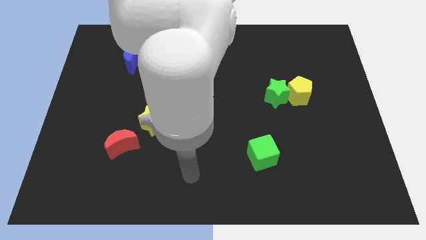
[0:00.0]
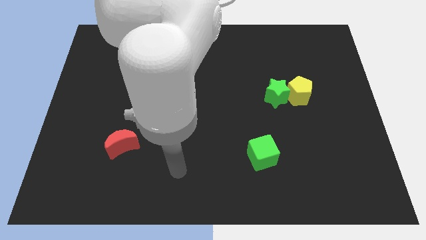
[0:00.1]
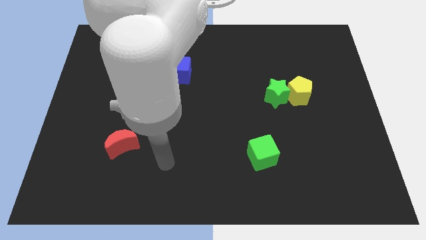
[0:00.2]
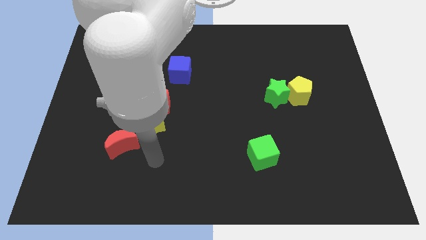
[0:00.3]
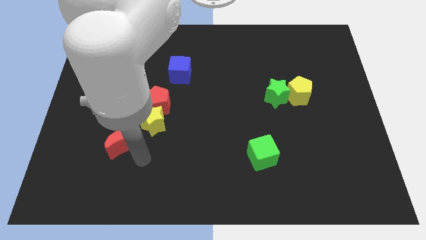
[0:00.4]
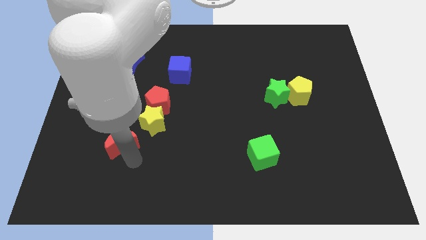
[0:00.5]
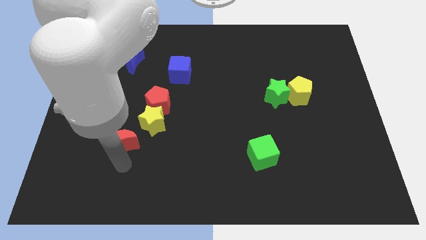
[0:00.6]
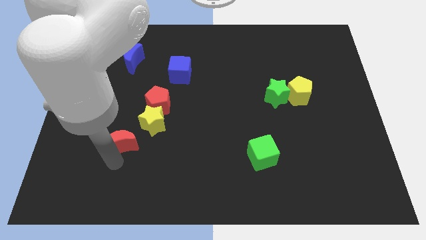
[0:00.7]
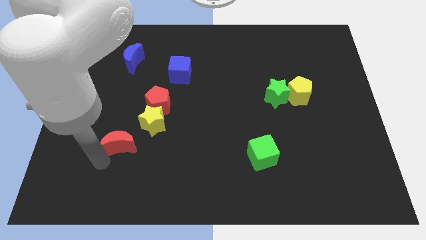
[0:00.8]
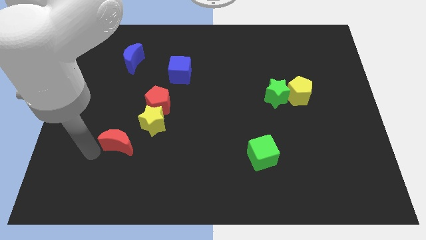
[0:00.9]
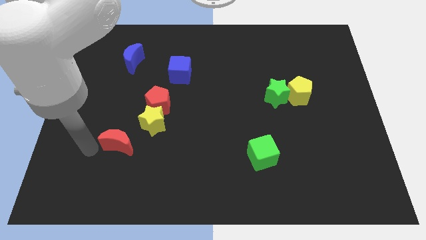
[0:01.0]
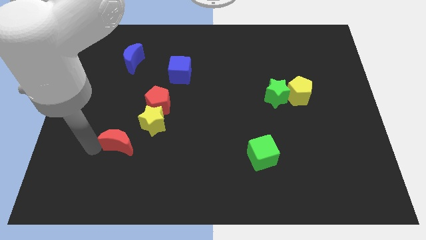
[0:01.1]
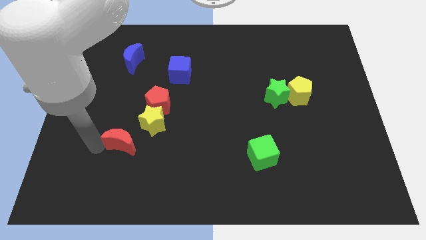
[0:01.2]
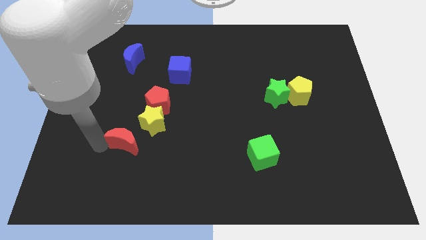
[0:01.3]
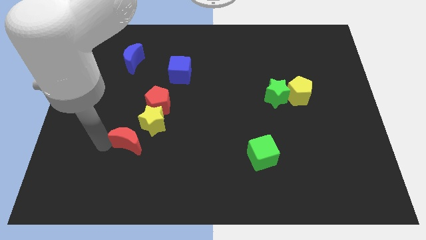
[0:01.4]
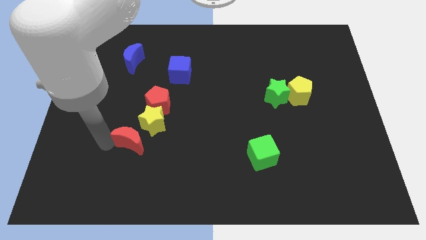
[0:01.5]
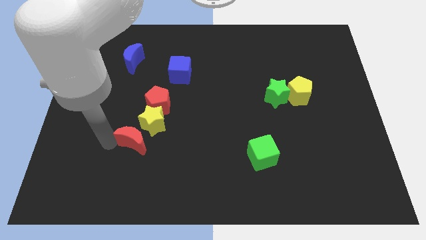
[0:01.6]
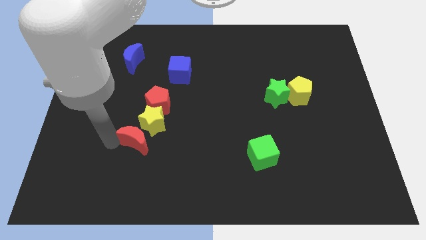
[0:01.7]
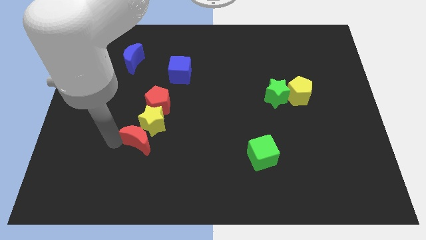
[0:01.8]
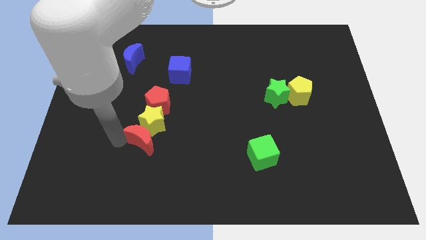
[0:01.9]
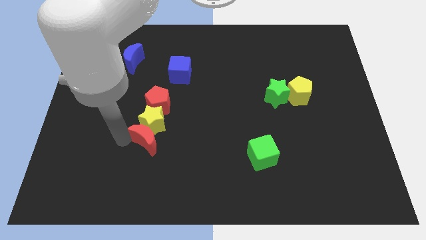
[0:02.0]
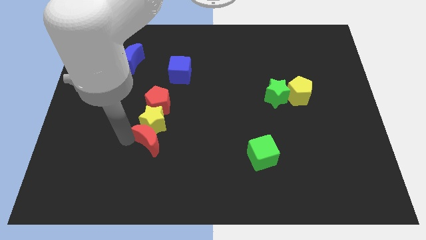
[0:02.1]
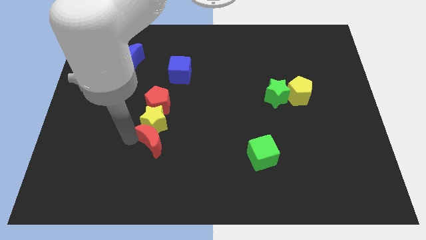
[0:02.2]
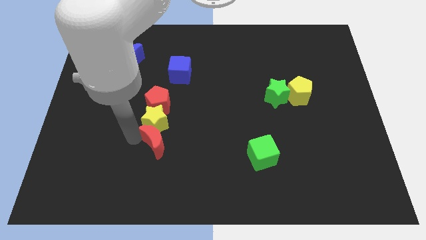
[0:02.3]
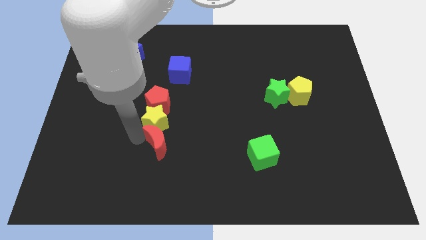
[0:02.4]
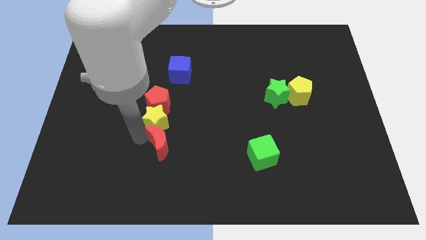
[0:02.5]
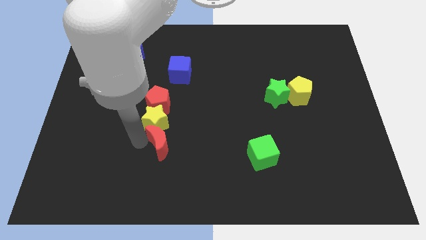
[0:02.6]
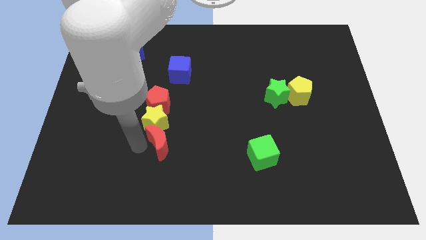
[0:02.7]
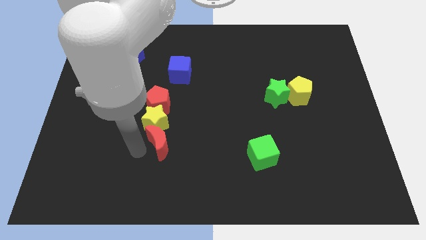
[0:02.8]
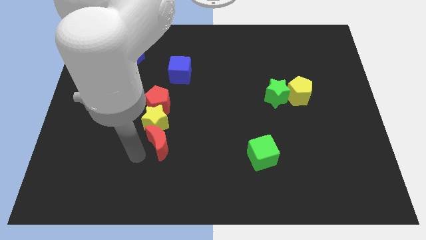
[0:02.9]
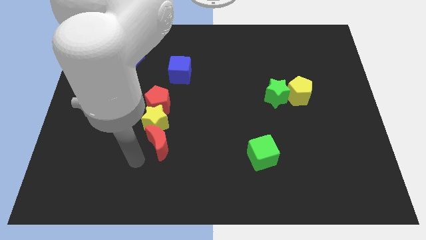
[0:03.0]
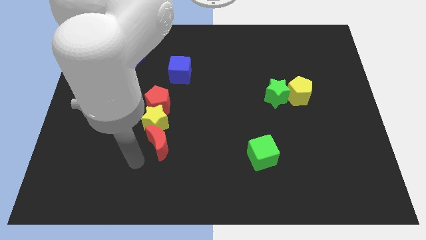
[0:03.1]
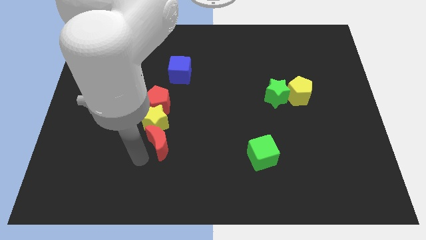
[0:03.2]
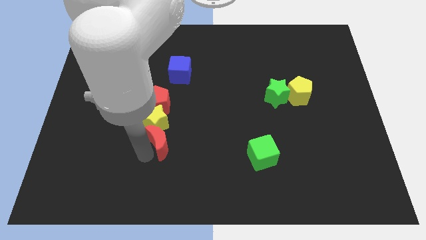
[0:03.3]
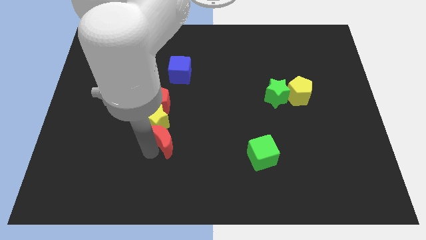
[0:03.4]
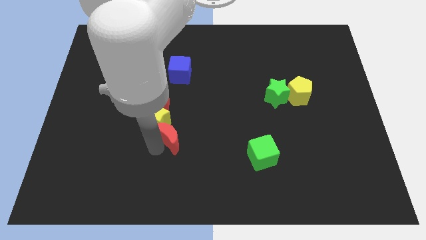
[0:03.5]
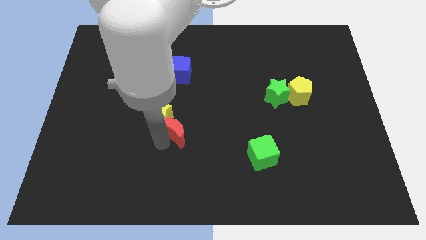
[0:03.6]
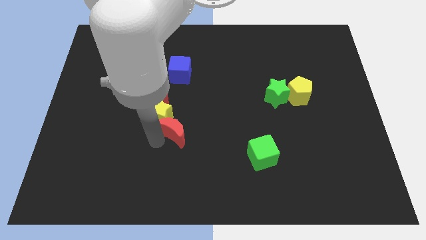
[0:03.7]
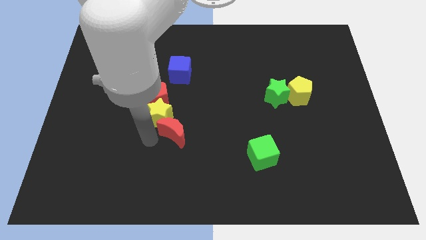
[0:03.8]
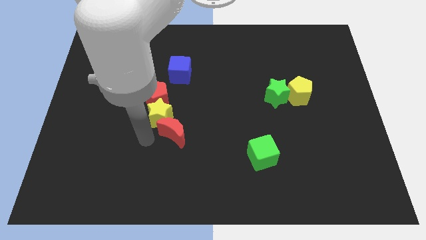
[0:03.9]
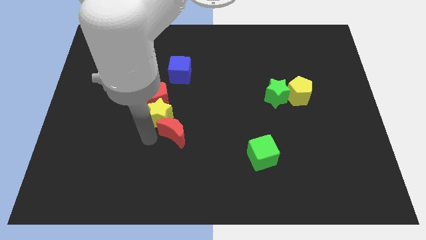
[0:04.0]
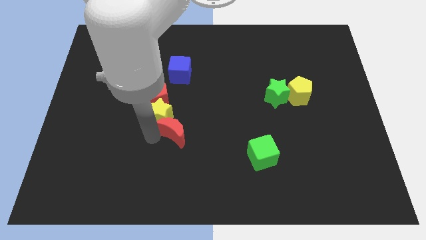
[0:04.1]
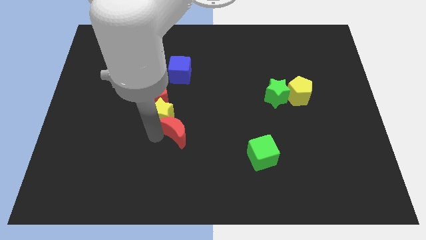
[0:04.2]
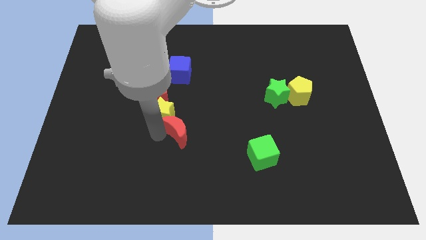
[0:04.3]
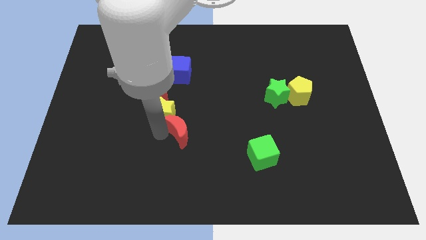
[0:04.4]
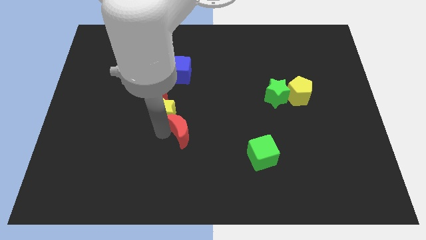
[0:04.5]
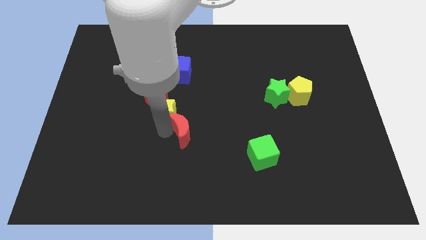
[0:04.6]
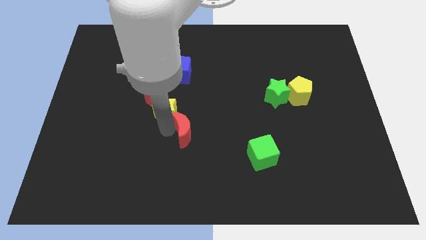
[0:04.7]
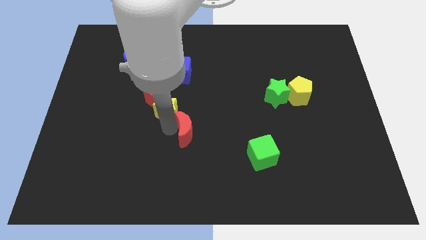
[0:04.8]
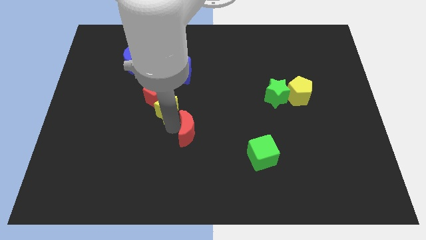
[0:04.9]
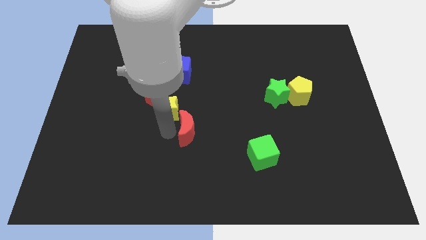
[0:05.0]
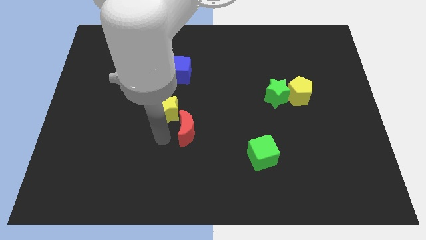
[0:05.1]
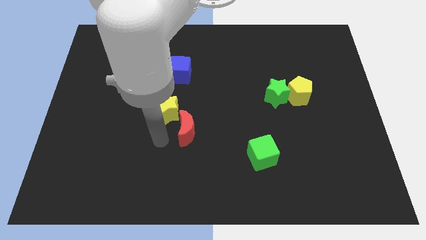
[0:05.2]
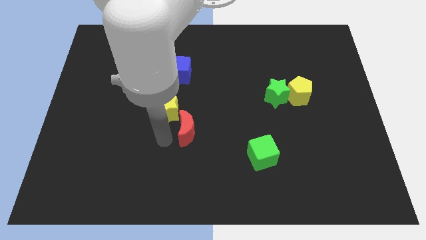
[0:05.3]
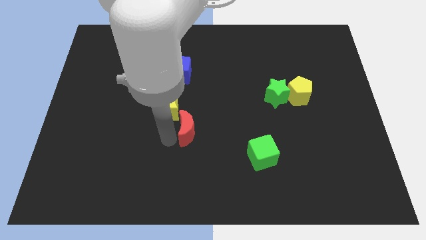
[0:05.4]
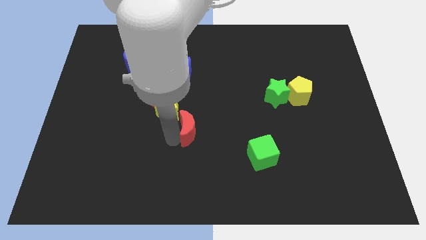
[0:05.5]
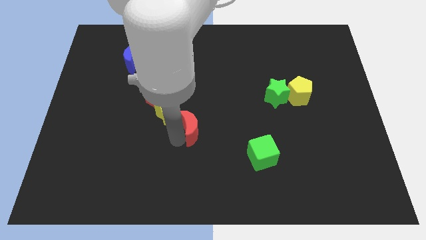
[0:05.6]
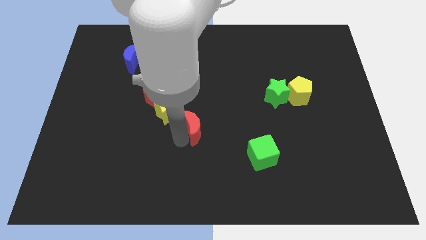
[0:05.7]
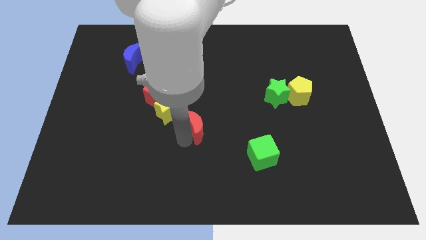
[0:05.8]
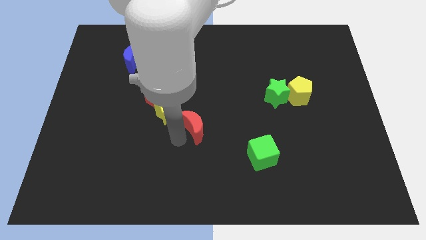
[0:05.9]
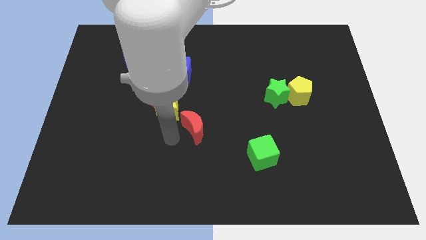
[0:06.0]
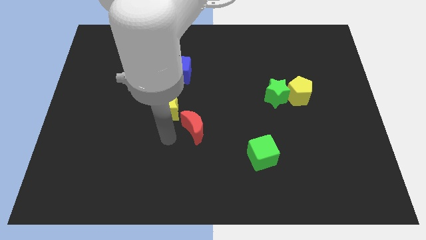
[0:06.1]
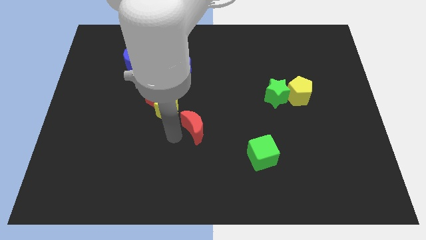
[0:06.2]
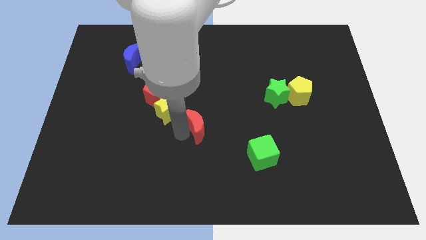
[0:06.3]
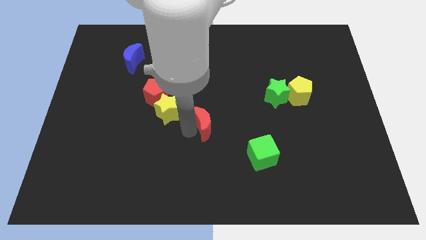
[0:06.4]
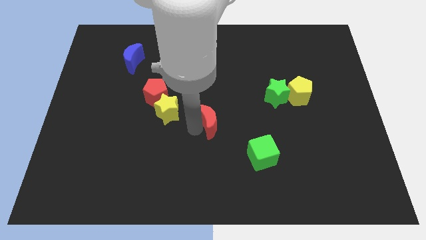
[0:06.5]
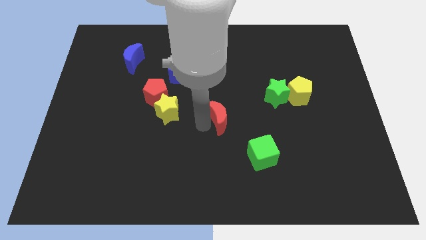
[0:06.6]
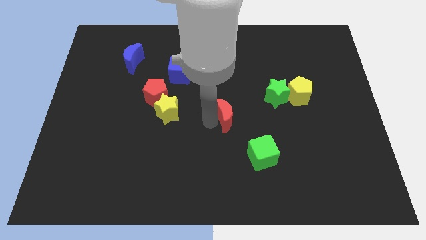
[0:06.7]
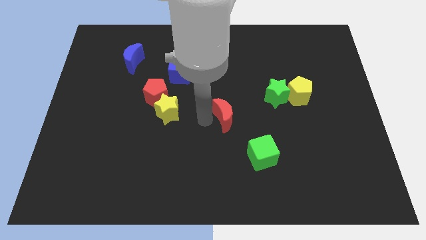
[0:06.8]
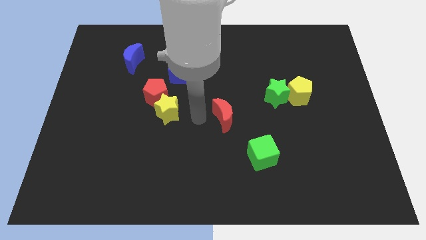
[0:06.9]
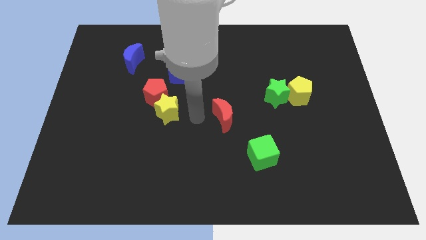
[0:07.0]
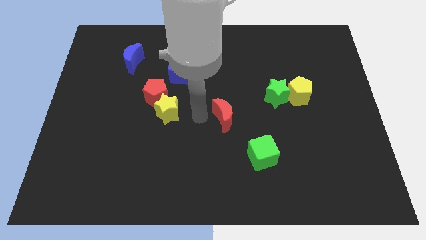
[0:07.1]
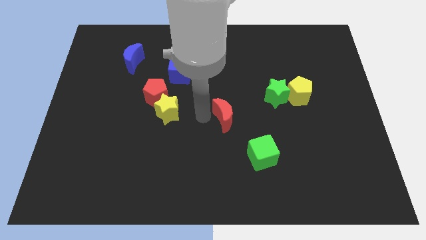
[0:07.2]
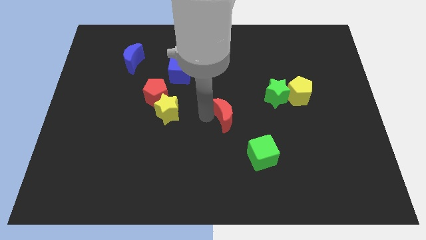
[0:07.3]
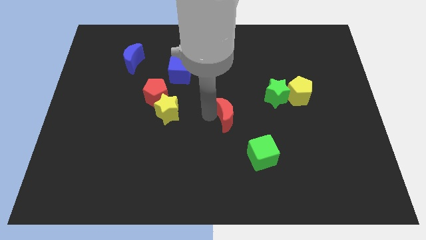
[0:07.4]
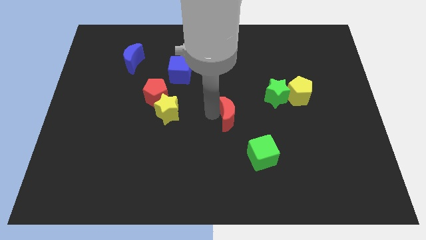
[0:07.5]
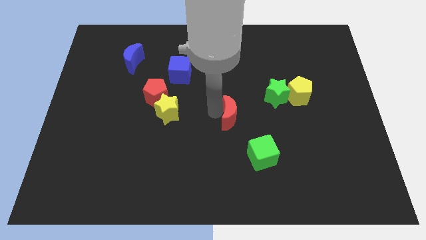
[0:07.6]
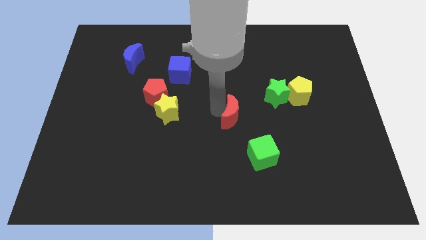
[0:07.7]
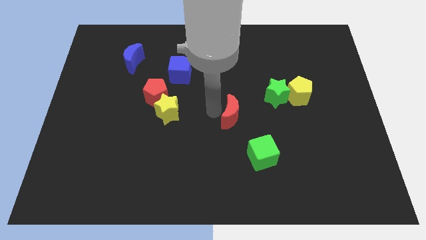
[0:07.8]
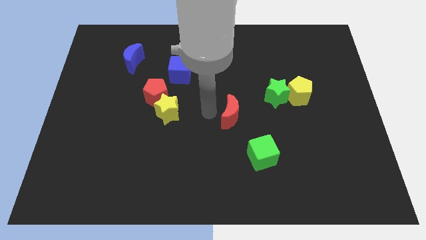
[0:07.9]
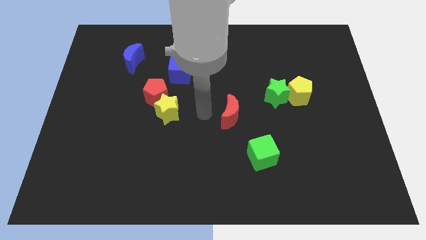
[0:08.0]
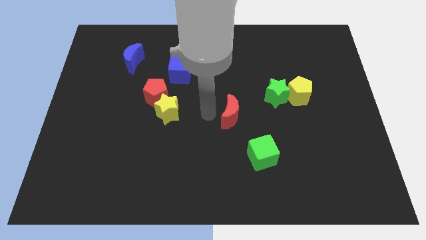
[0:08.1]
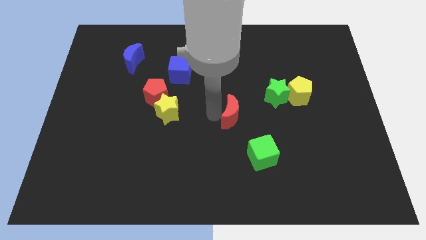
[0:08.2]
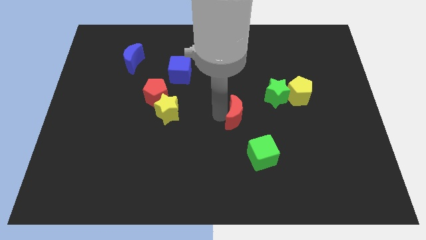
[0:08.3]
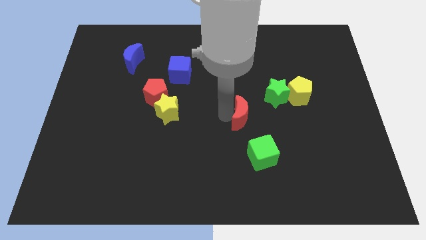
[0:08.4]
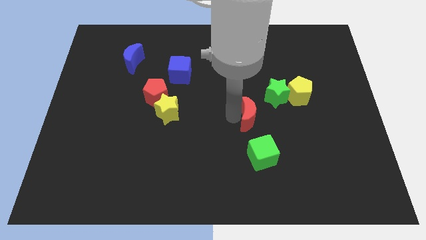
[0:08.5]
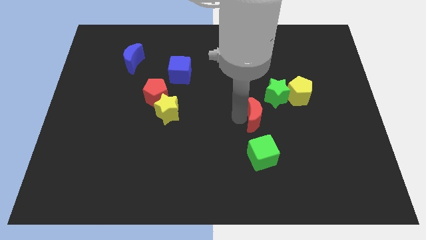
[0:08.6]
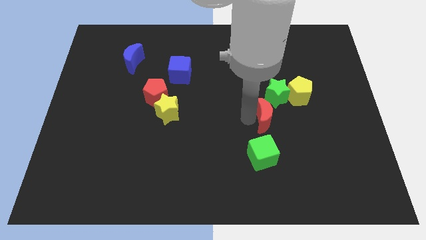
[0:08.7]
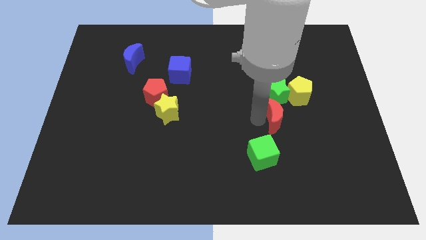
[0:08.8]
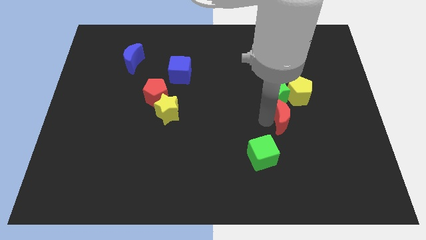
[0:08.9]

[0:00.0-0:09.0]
move the red moon to the bottom right of the green star
